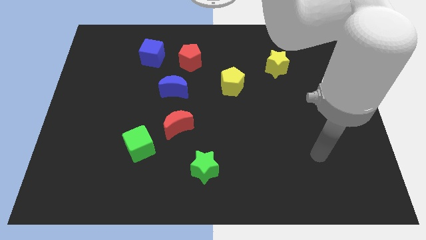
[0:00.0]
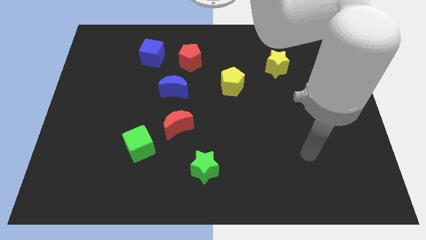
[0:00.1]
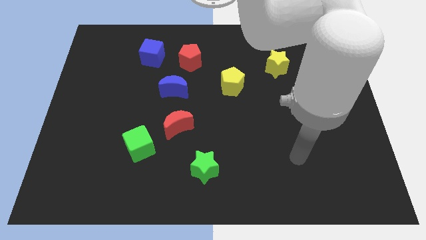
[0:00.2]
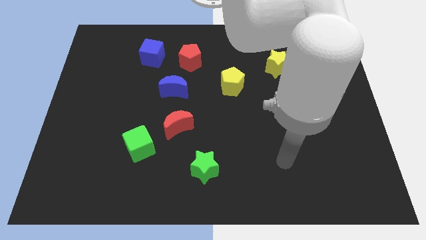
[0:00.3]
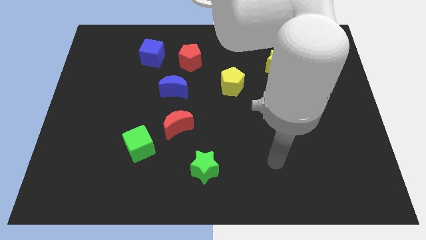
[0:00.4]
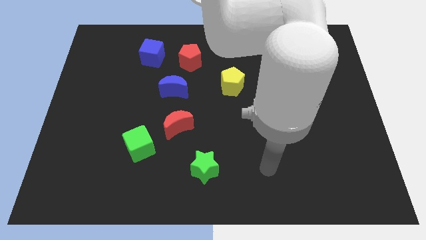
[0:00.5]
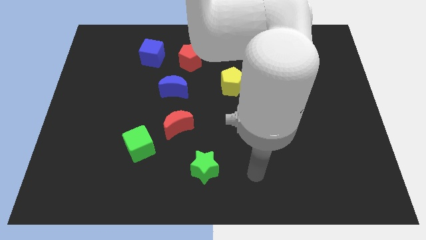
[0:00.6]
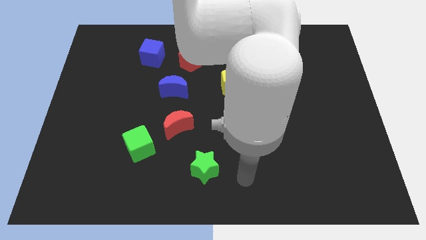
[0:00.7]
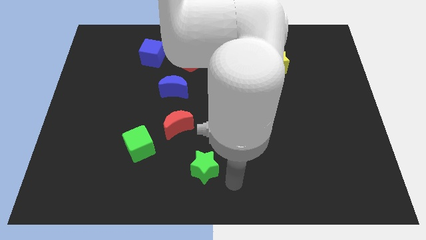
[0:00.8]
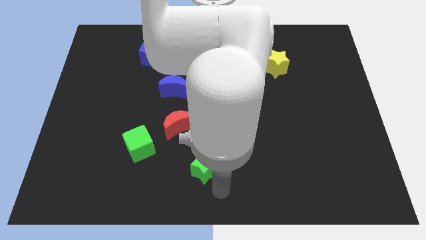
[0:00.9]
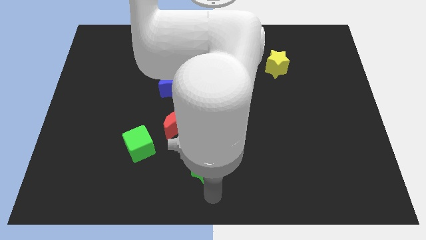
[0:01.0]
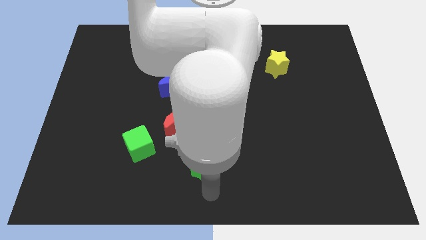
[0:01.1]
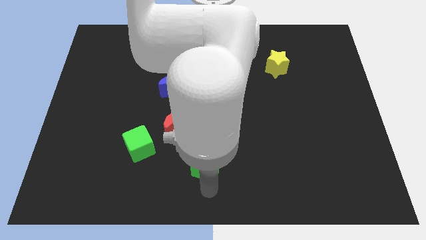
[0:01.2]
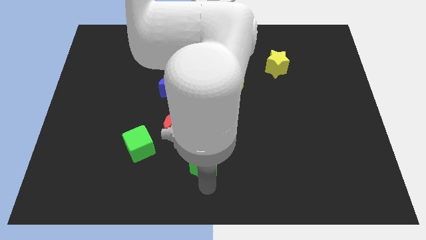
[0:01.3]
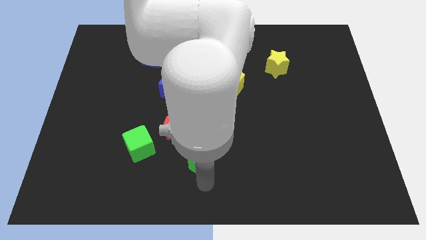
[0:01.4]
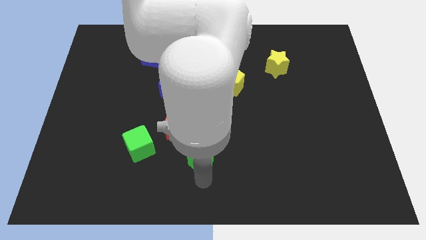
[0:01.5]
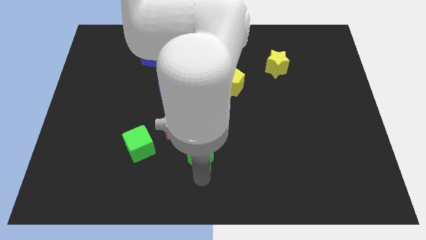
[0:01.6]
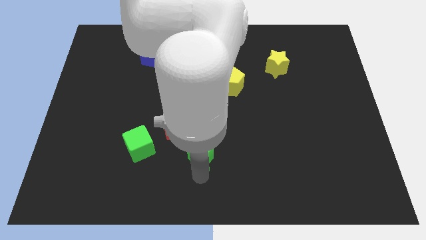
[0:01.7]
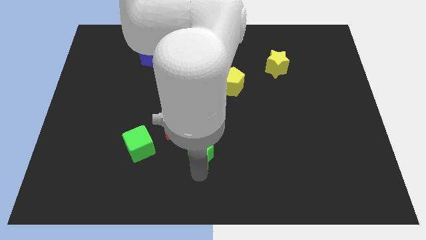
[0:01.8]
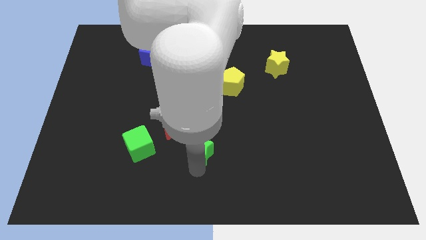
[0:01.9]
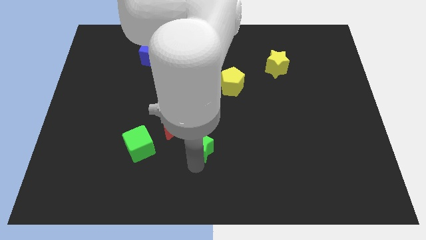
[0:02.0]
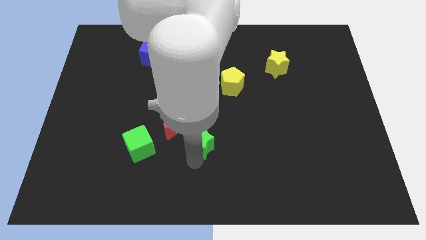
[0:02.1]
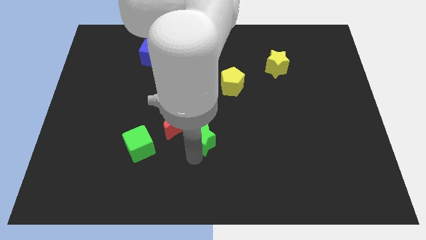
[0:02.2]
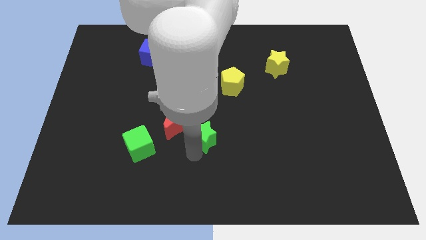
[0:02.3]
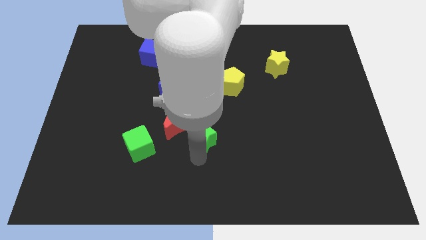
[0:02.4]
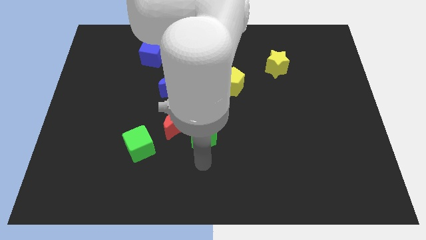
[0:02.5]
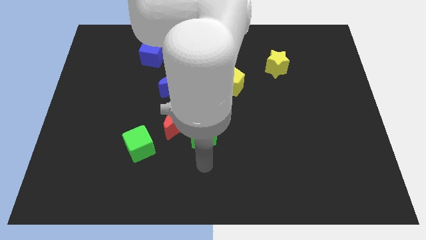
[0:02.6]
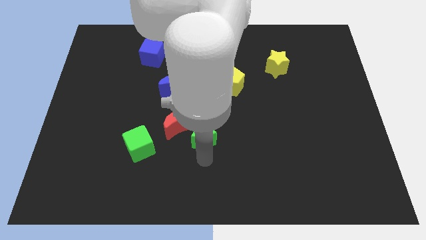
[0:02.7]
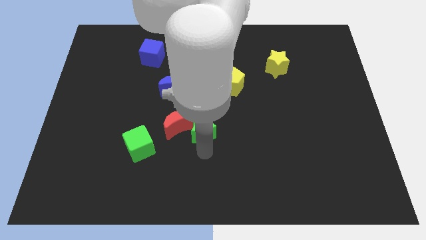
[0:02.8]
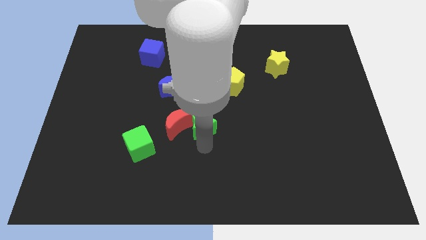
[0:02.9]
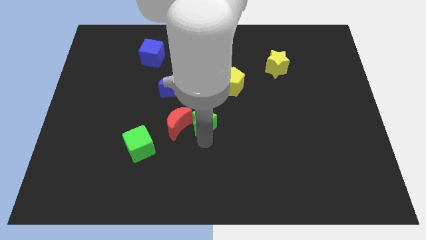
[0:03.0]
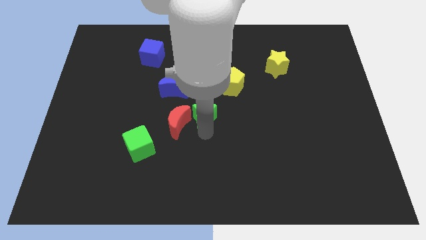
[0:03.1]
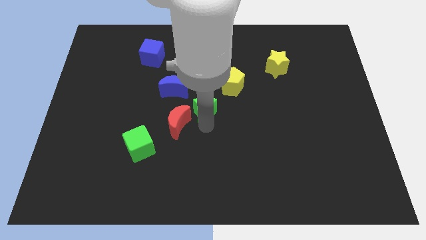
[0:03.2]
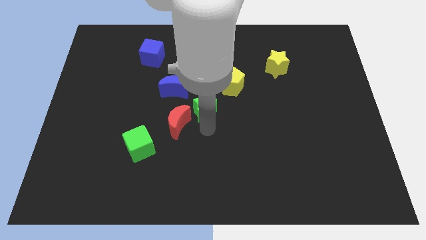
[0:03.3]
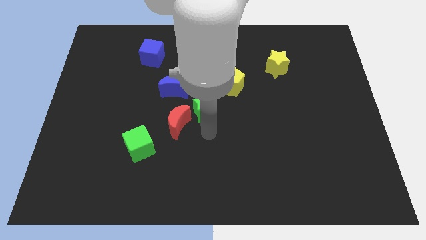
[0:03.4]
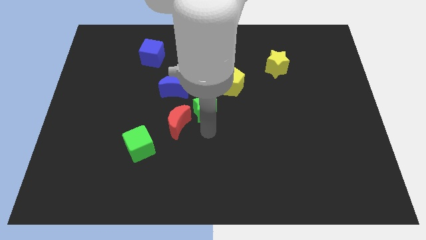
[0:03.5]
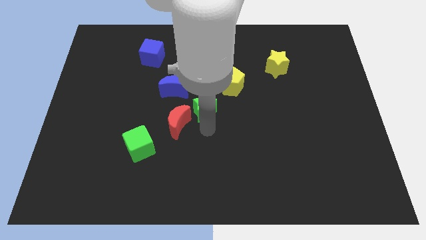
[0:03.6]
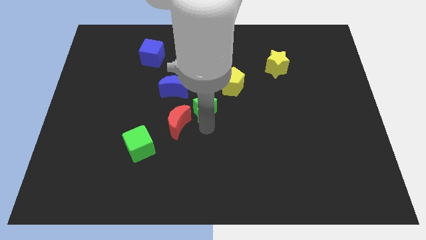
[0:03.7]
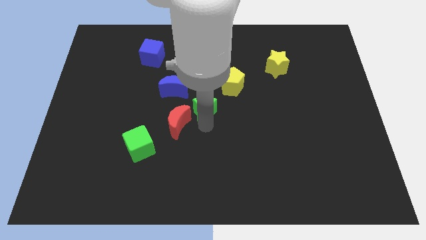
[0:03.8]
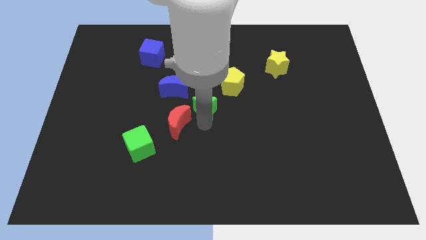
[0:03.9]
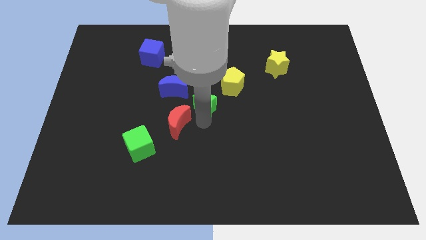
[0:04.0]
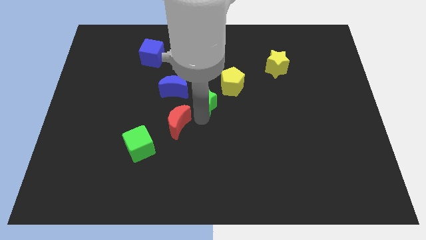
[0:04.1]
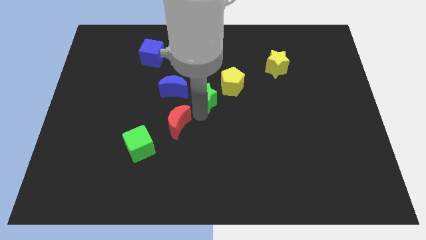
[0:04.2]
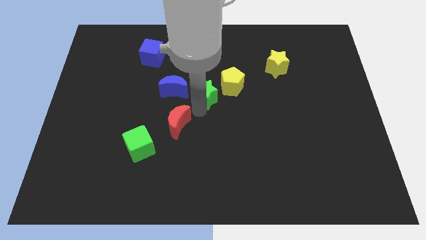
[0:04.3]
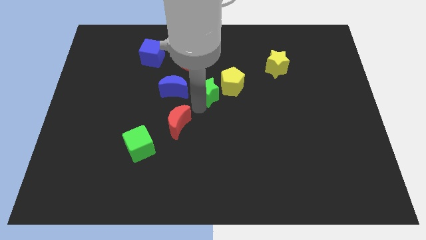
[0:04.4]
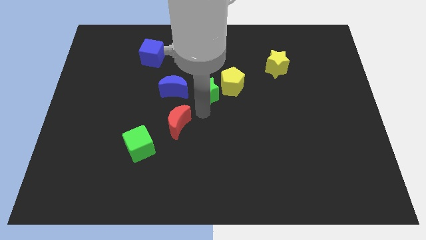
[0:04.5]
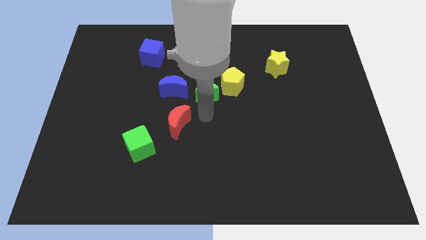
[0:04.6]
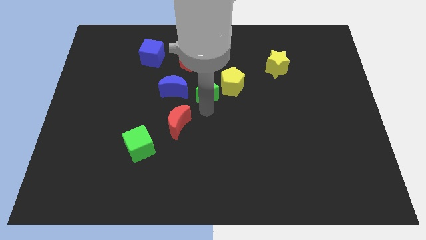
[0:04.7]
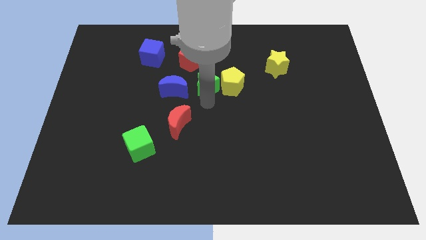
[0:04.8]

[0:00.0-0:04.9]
push the green star to the top left of the yellow pentagon

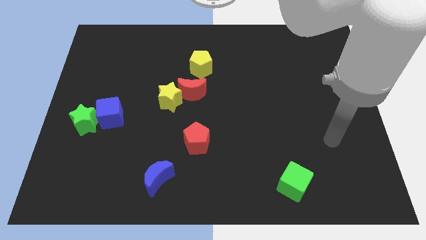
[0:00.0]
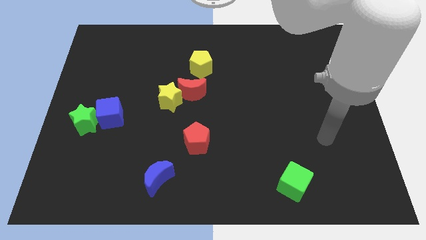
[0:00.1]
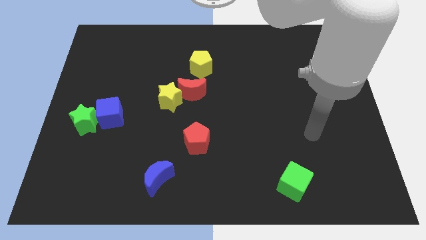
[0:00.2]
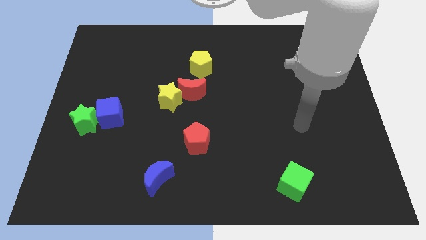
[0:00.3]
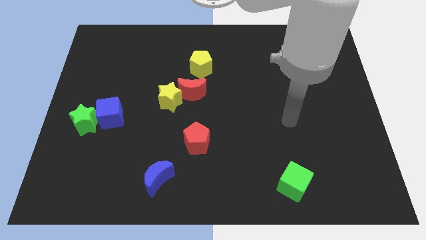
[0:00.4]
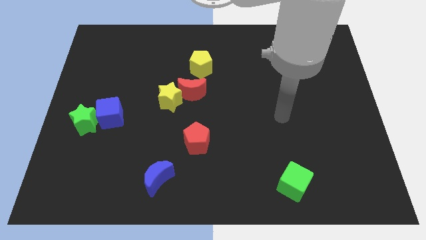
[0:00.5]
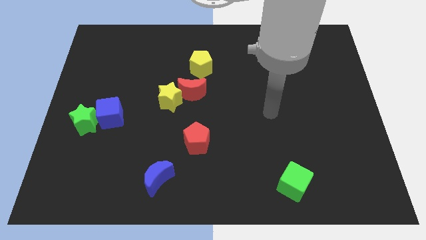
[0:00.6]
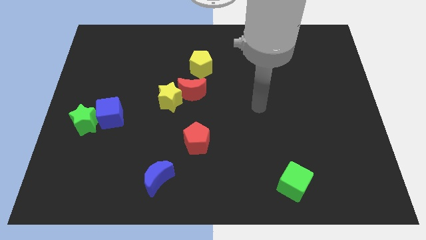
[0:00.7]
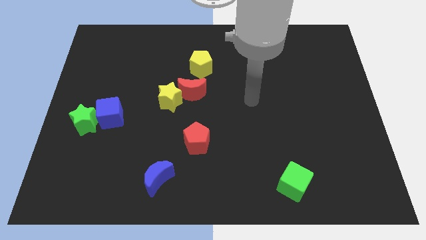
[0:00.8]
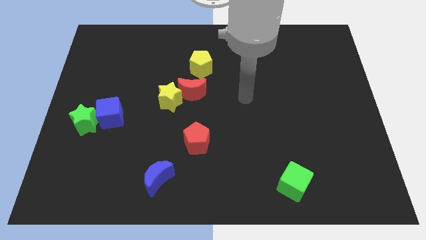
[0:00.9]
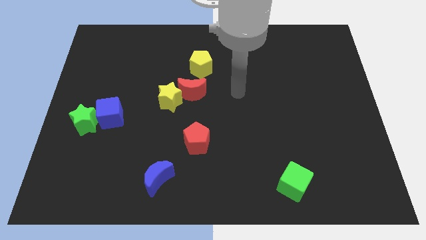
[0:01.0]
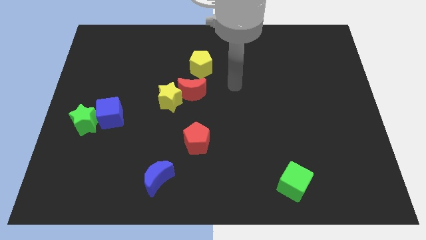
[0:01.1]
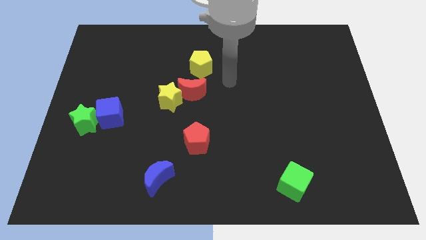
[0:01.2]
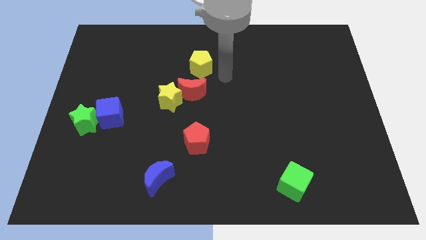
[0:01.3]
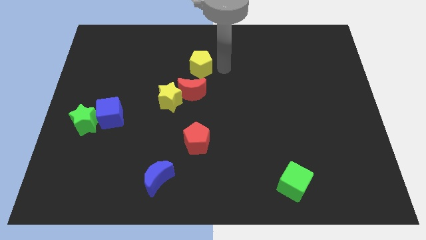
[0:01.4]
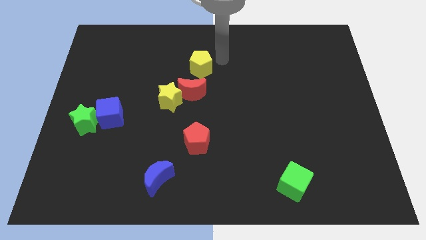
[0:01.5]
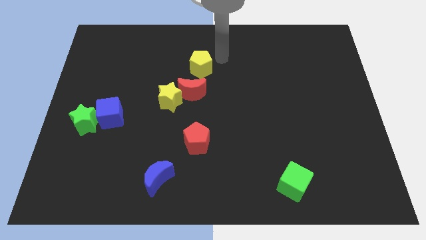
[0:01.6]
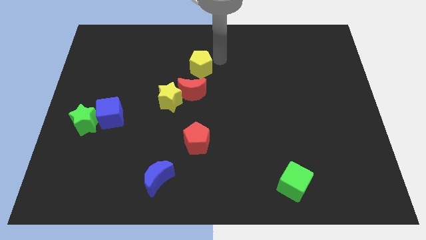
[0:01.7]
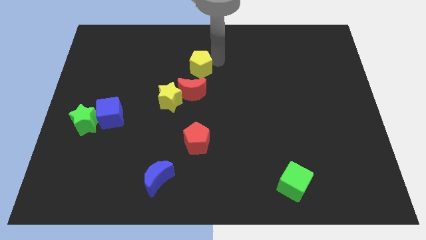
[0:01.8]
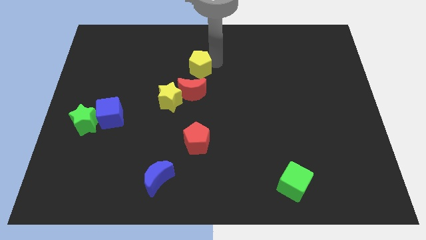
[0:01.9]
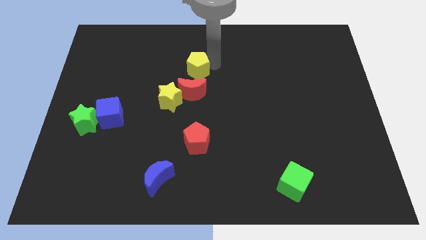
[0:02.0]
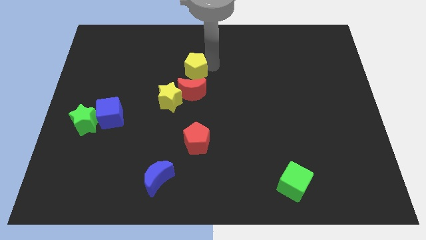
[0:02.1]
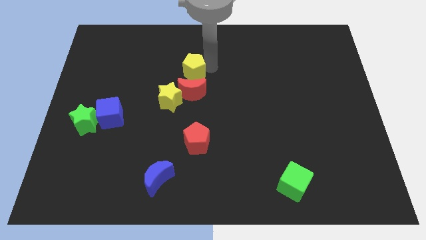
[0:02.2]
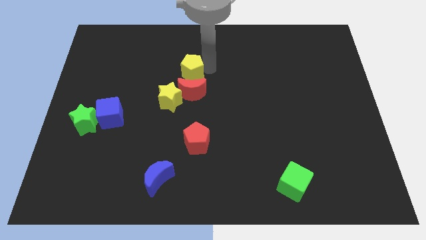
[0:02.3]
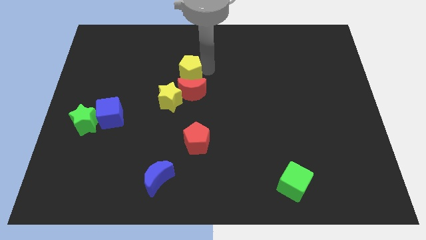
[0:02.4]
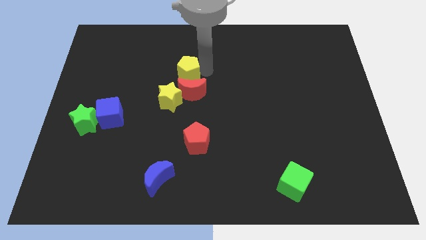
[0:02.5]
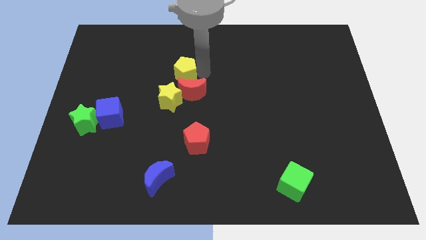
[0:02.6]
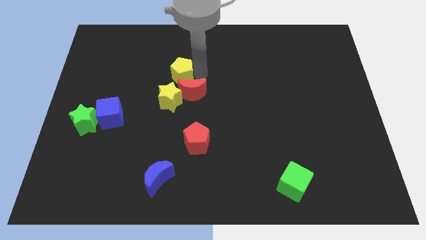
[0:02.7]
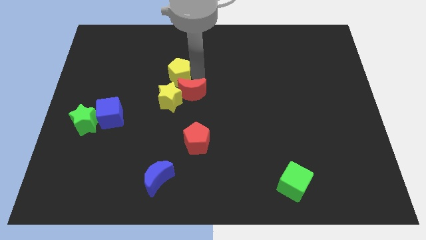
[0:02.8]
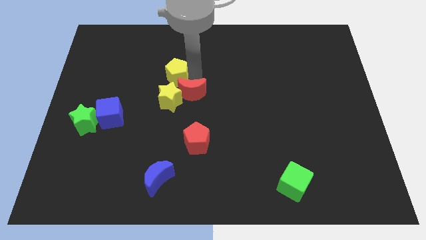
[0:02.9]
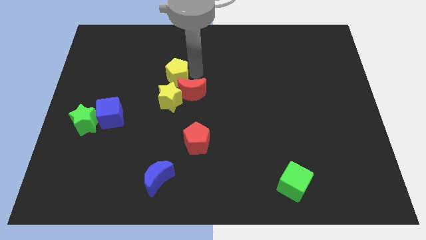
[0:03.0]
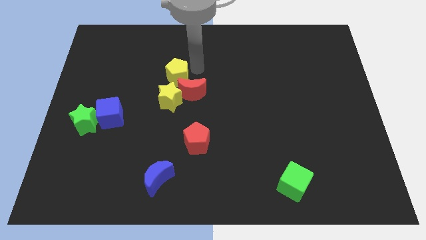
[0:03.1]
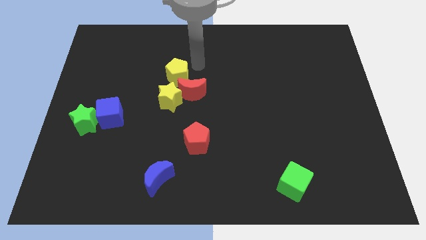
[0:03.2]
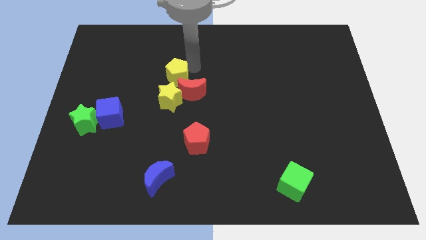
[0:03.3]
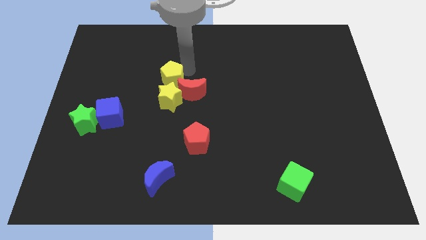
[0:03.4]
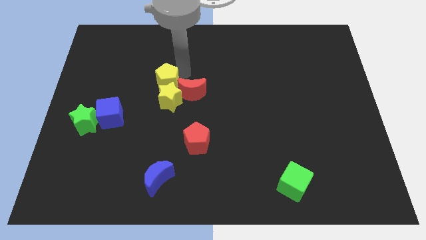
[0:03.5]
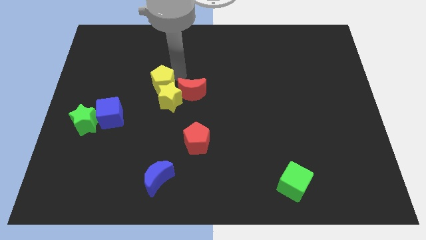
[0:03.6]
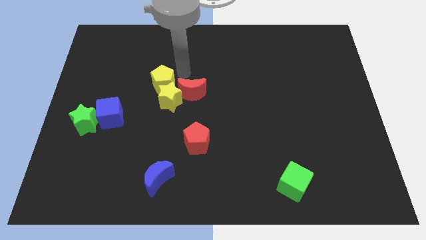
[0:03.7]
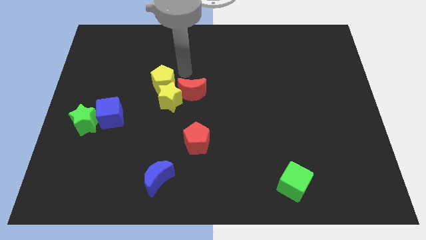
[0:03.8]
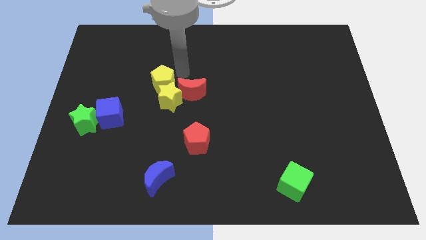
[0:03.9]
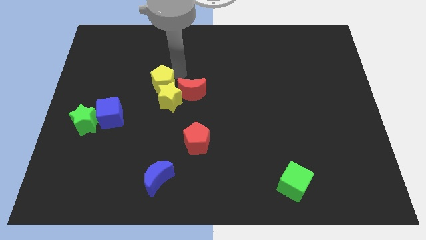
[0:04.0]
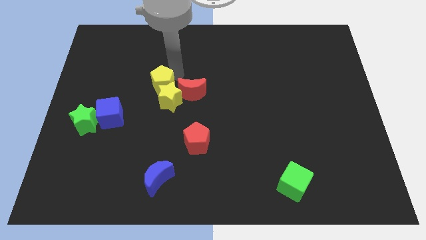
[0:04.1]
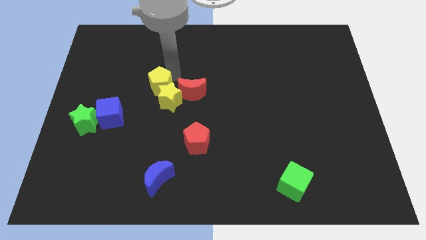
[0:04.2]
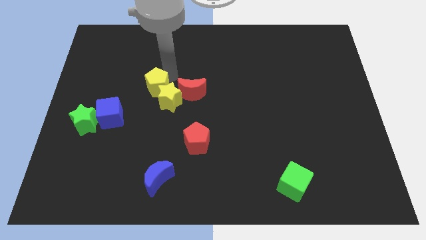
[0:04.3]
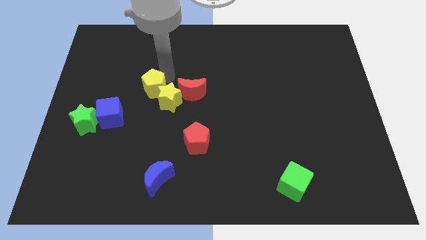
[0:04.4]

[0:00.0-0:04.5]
push the yellow pentagon to the top right of the blue cube
